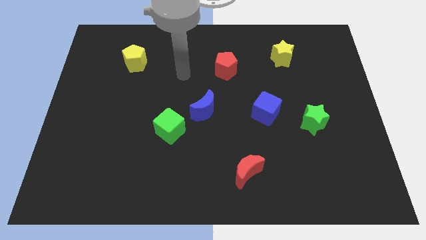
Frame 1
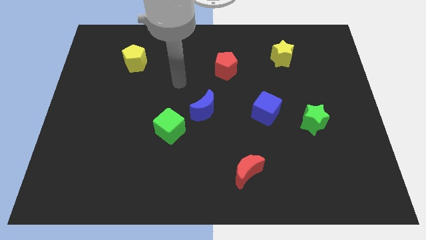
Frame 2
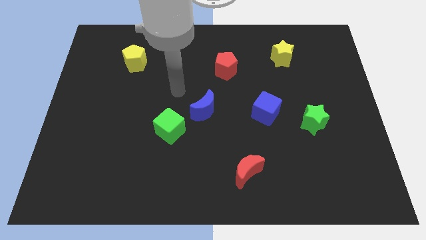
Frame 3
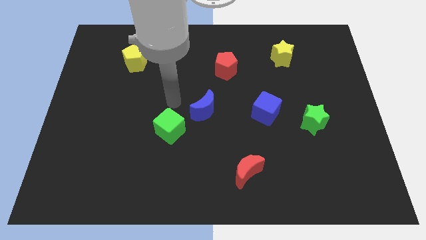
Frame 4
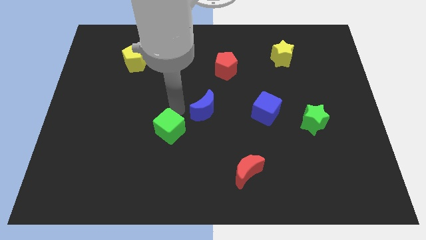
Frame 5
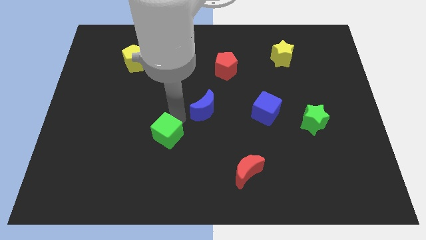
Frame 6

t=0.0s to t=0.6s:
separate the blue moon from the green cube

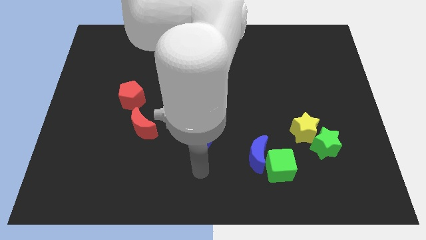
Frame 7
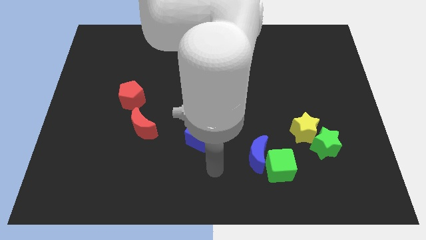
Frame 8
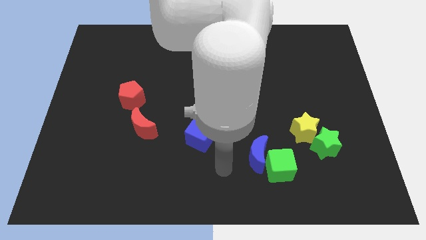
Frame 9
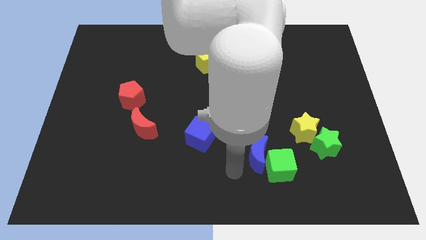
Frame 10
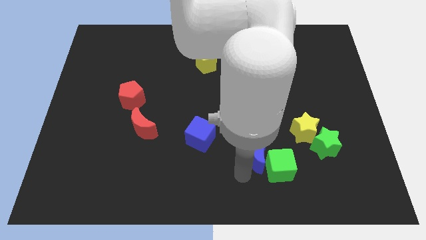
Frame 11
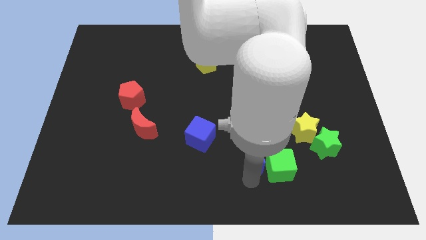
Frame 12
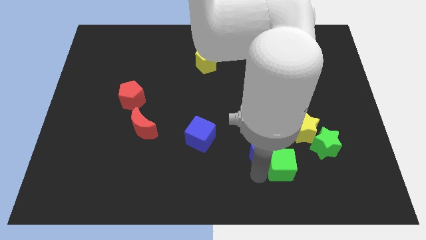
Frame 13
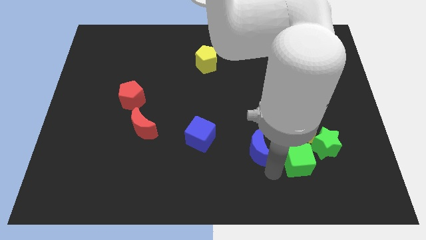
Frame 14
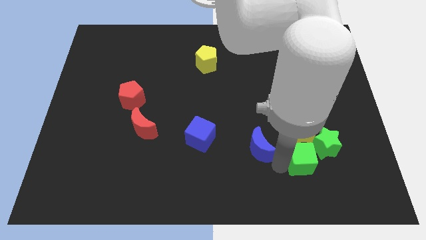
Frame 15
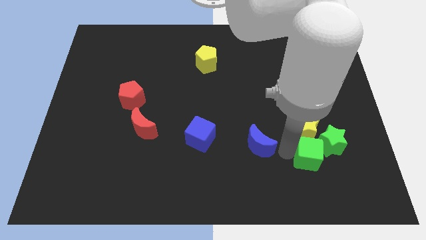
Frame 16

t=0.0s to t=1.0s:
move the blue moon away from the green cube

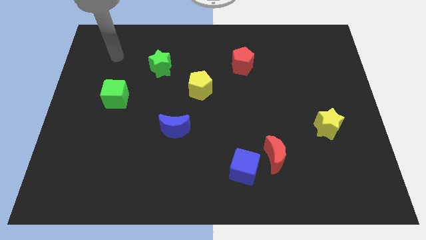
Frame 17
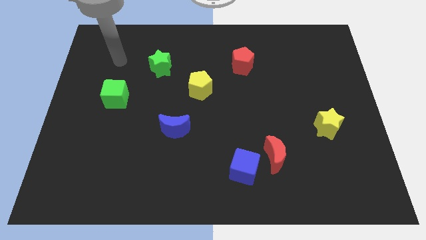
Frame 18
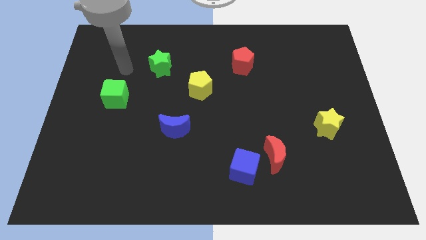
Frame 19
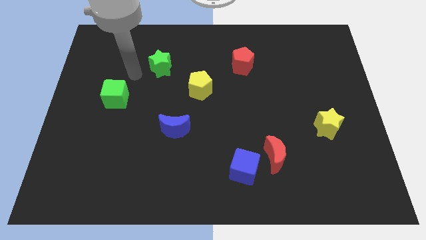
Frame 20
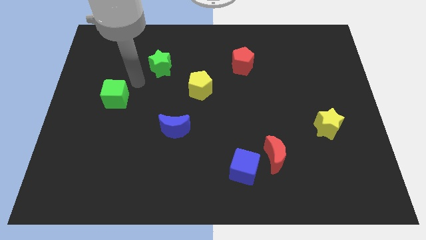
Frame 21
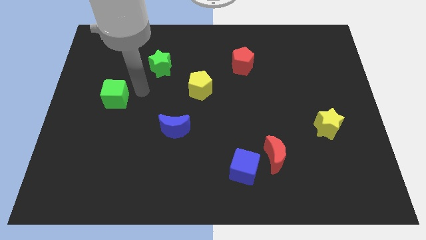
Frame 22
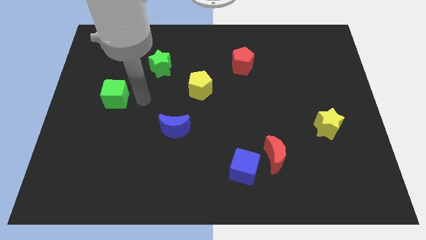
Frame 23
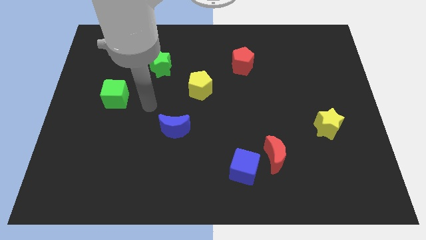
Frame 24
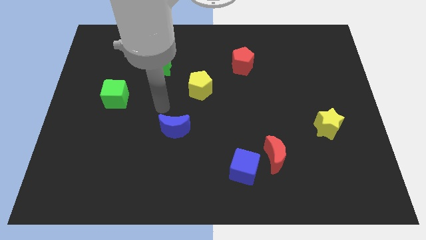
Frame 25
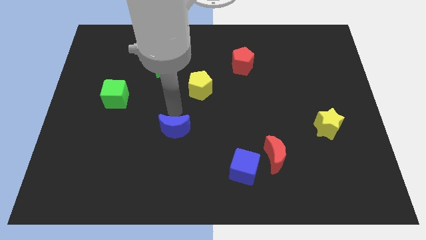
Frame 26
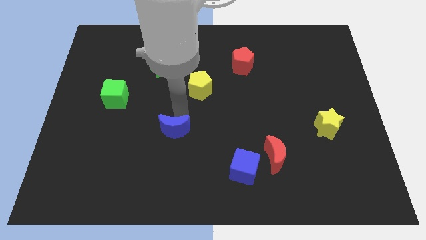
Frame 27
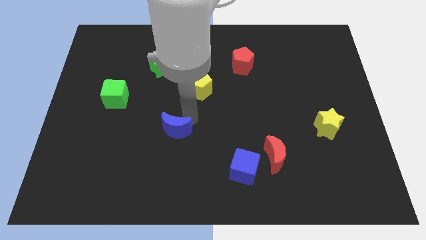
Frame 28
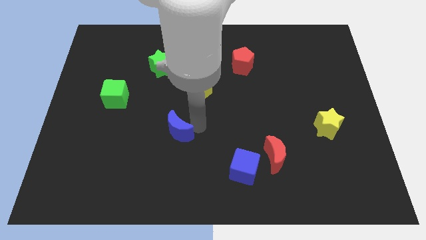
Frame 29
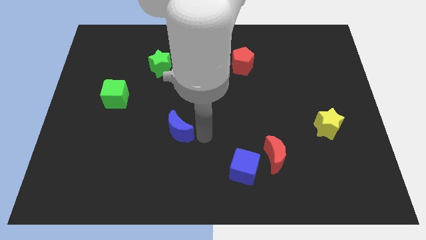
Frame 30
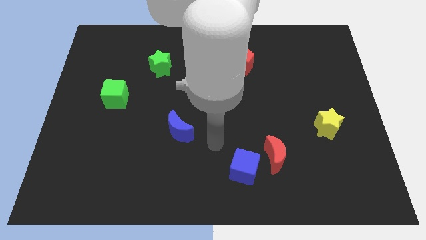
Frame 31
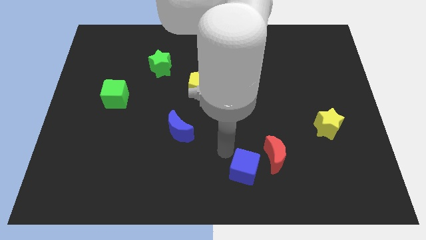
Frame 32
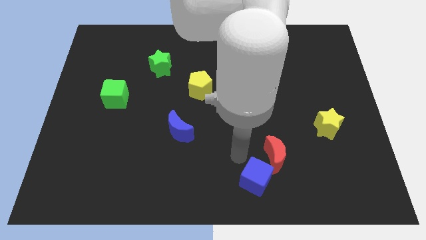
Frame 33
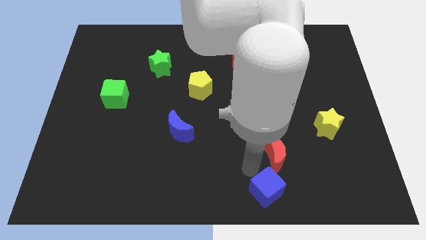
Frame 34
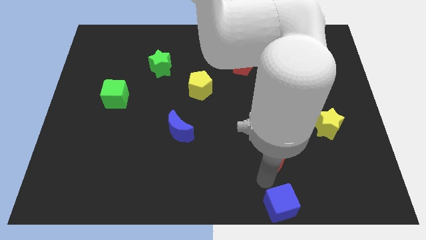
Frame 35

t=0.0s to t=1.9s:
pull the red moon apart from the blue cube

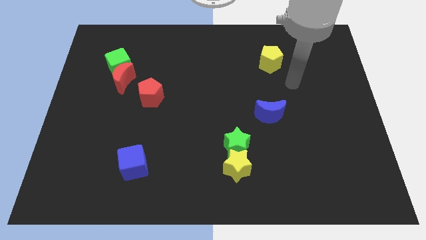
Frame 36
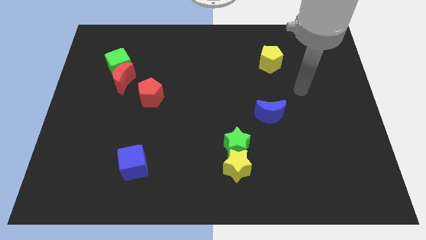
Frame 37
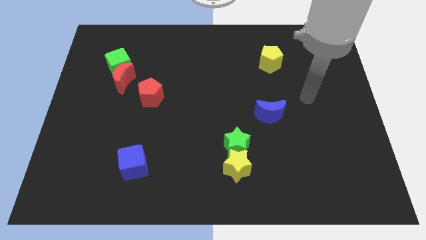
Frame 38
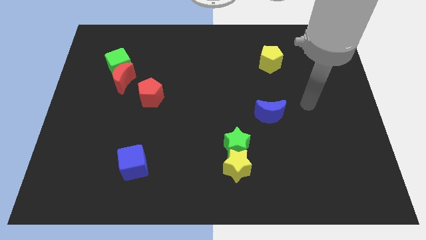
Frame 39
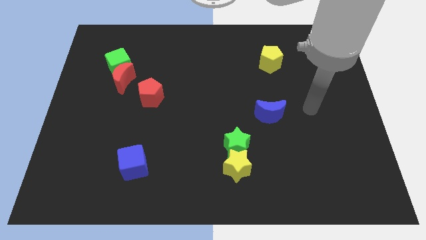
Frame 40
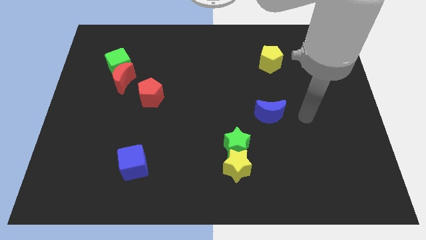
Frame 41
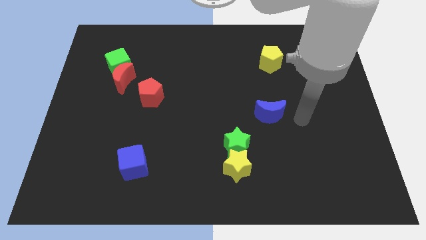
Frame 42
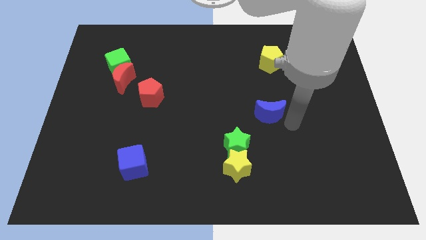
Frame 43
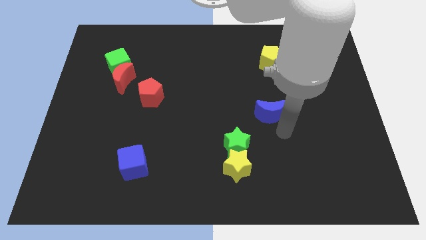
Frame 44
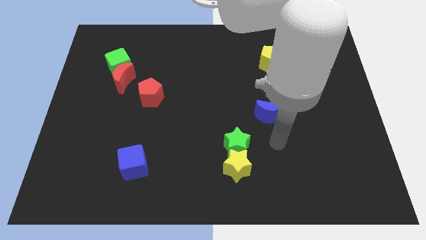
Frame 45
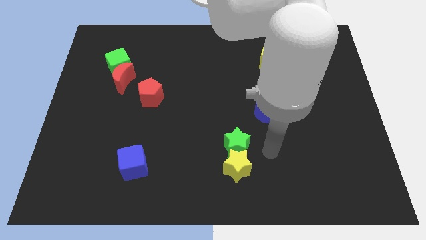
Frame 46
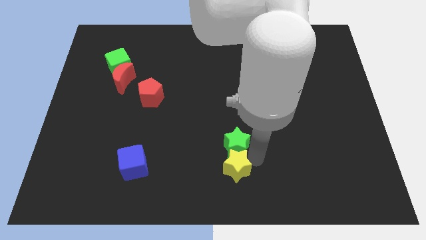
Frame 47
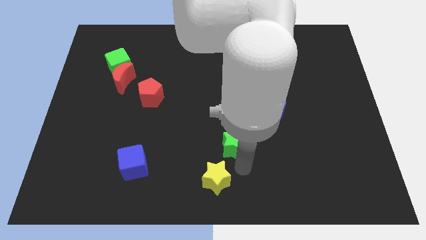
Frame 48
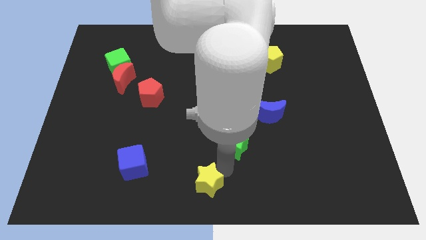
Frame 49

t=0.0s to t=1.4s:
pull the green star apart from the yellow star

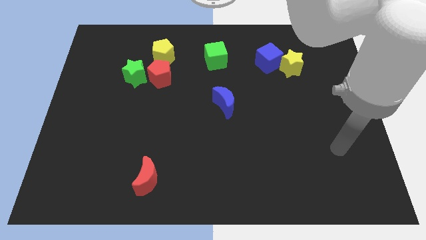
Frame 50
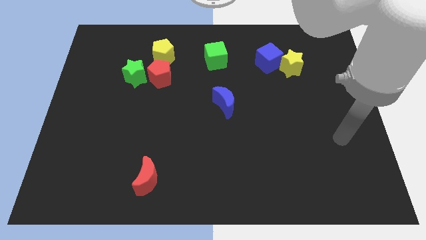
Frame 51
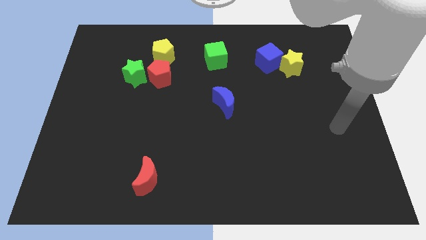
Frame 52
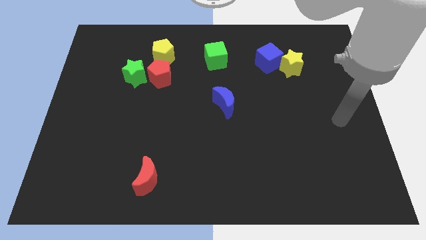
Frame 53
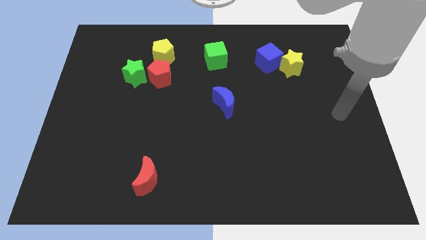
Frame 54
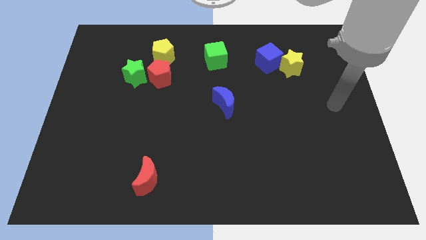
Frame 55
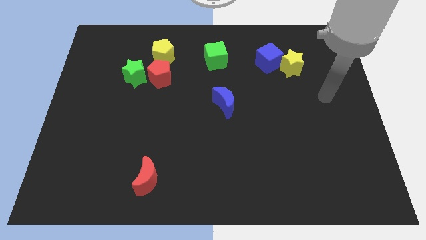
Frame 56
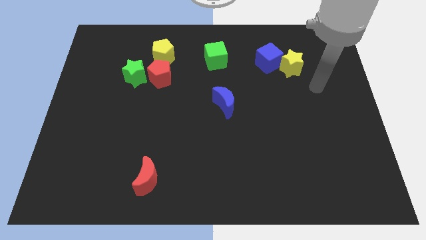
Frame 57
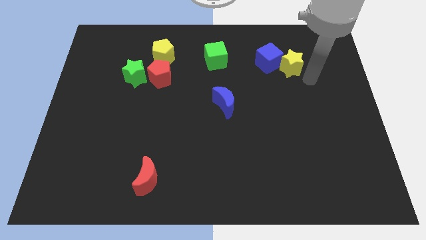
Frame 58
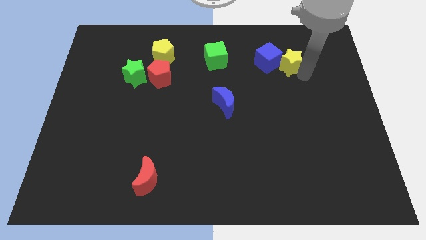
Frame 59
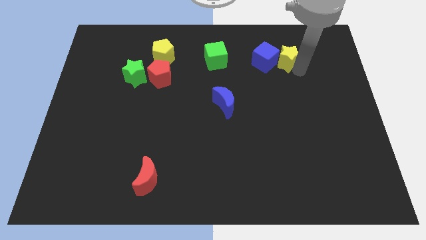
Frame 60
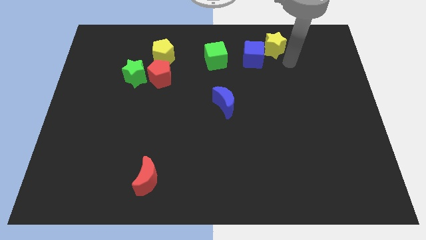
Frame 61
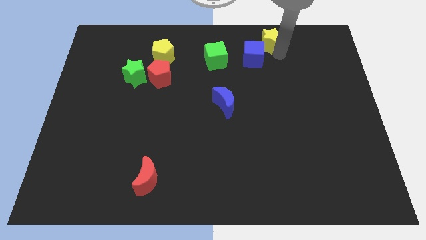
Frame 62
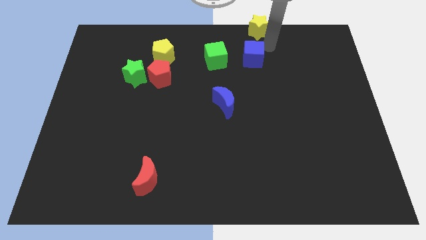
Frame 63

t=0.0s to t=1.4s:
separate the blue cube from the yellow star

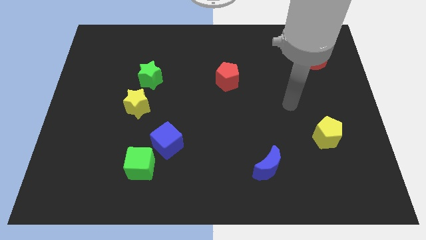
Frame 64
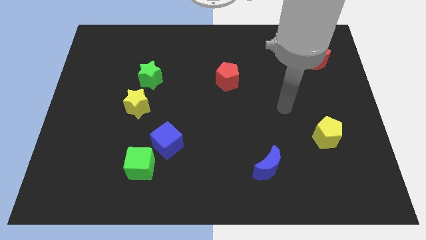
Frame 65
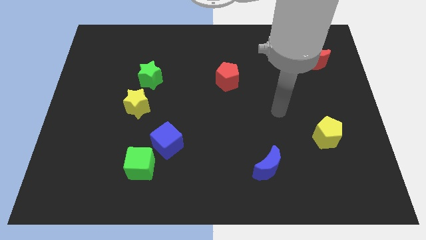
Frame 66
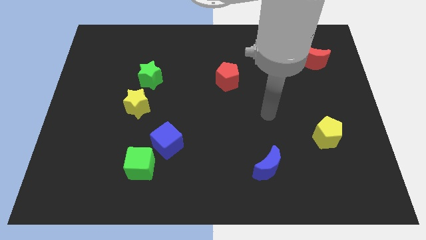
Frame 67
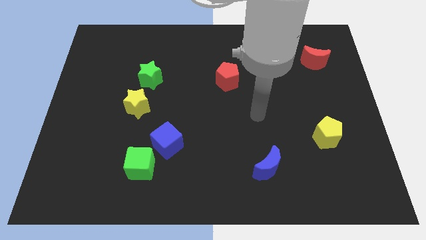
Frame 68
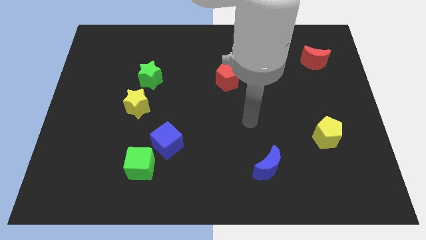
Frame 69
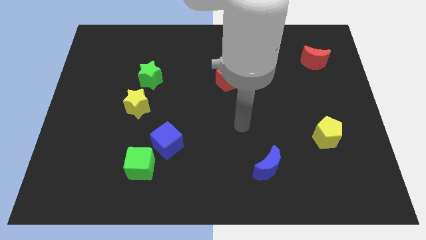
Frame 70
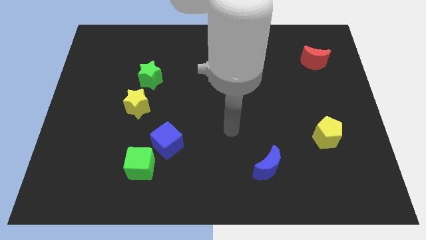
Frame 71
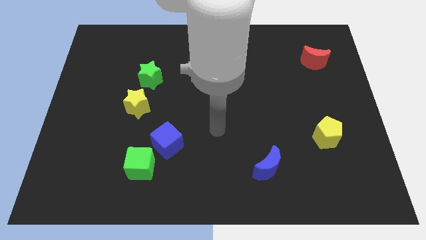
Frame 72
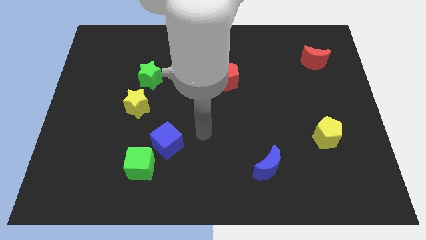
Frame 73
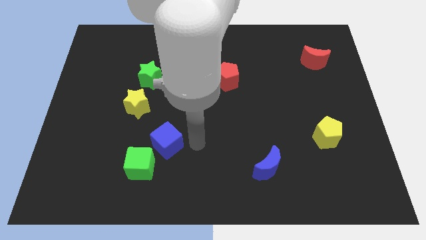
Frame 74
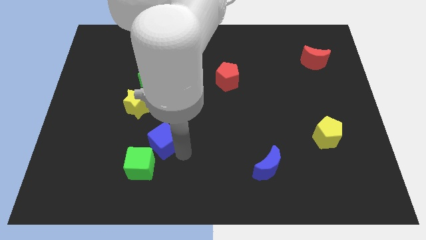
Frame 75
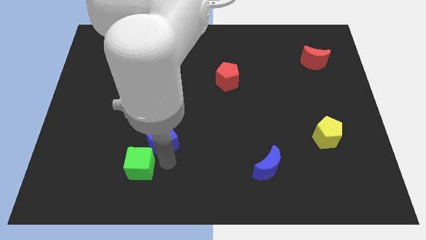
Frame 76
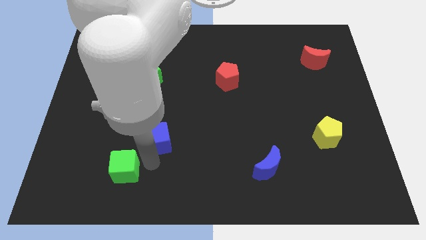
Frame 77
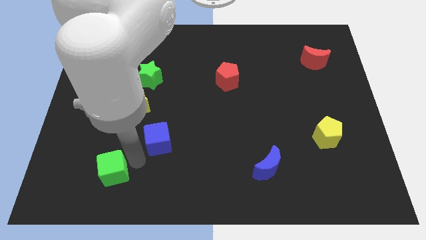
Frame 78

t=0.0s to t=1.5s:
pull the blue cube apart from the green cube

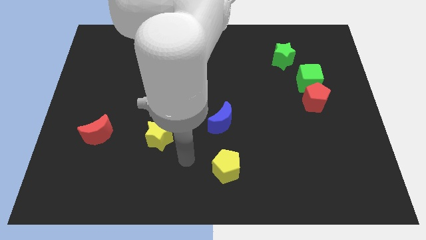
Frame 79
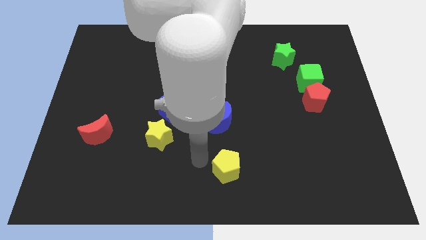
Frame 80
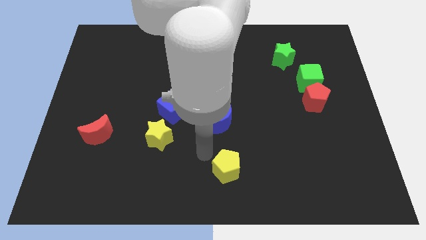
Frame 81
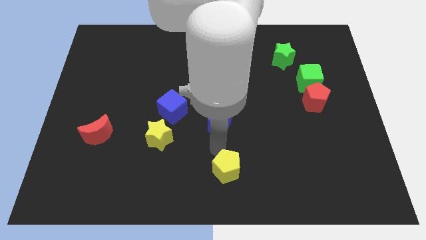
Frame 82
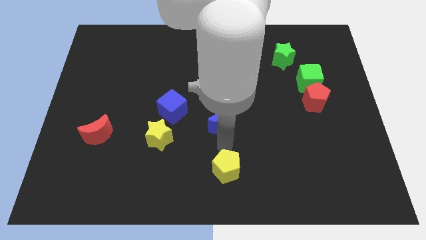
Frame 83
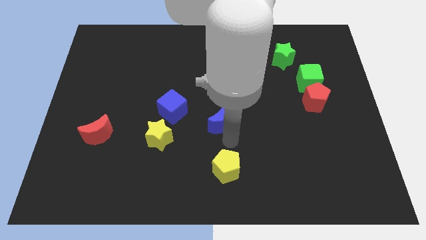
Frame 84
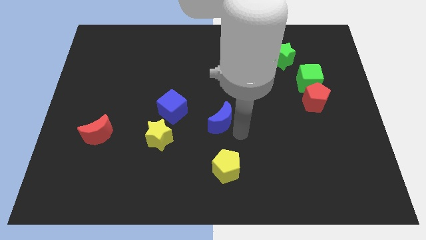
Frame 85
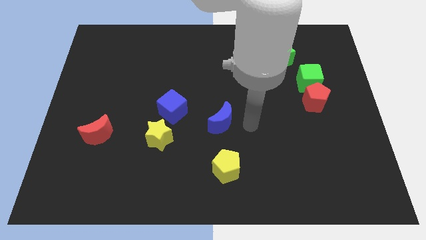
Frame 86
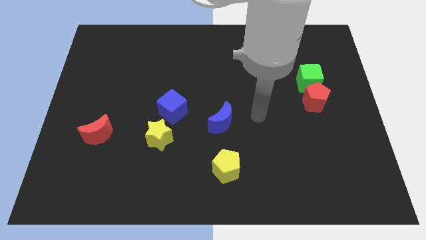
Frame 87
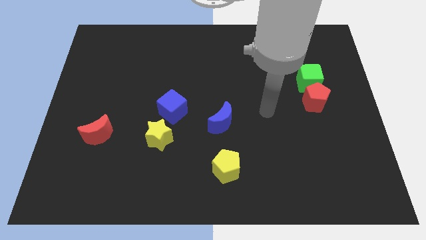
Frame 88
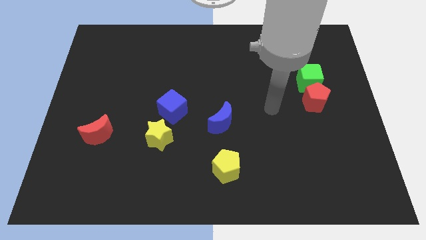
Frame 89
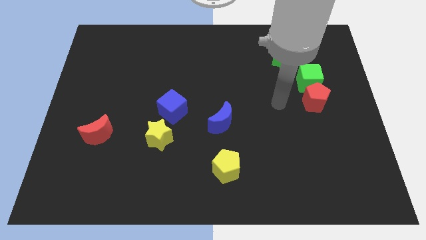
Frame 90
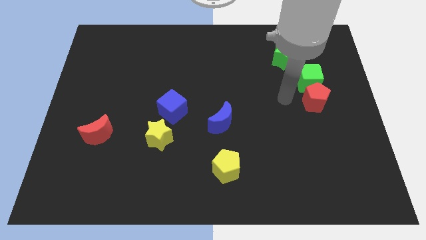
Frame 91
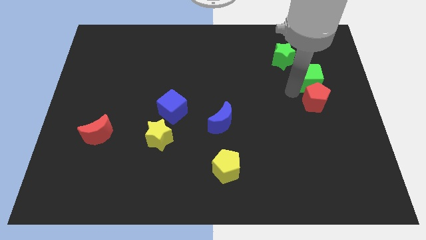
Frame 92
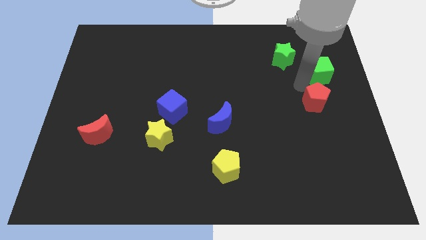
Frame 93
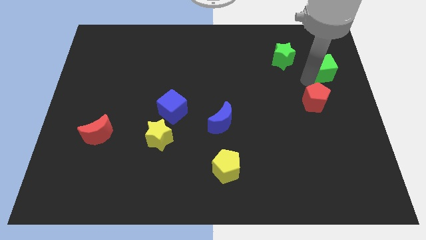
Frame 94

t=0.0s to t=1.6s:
separate the red pentagon from the green cube
